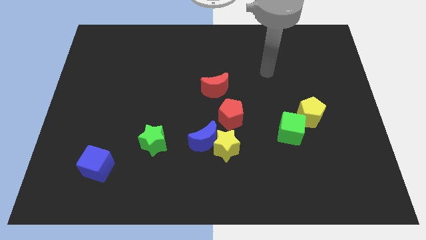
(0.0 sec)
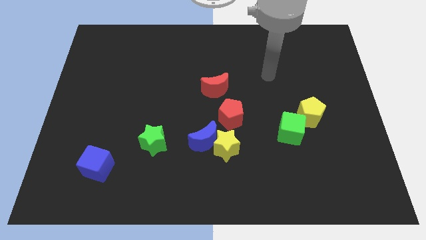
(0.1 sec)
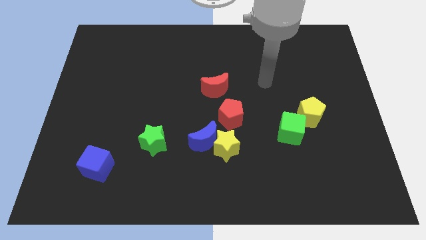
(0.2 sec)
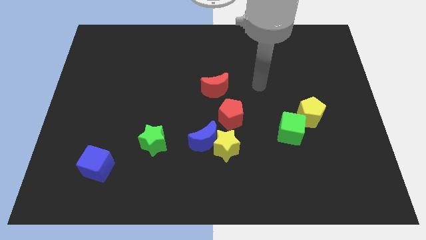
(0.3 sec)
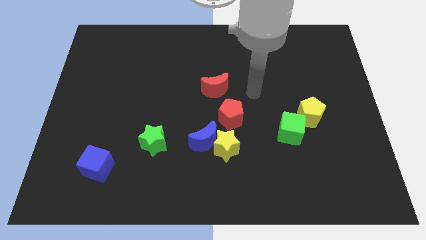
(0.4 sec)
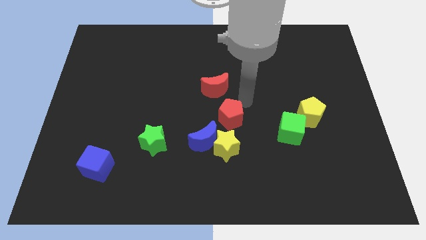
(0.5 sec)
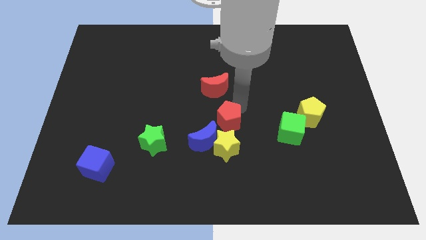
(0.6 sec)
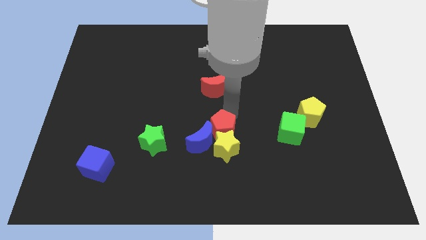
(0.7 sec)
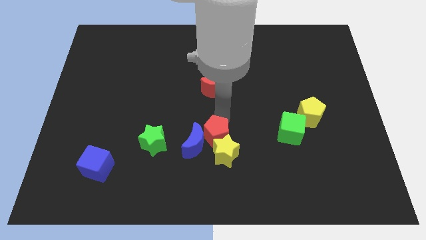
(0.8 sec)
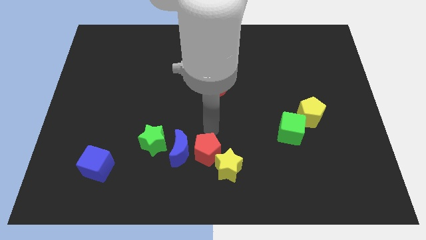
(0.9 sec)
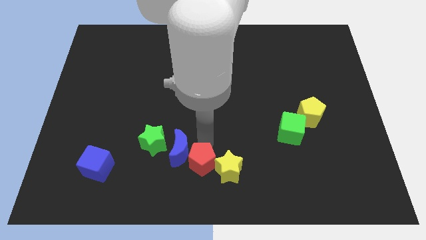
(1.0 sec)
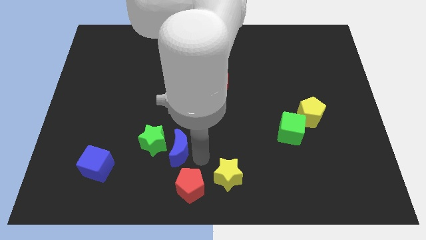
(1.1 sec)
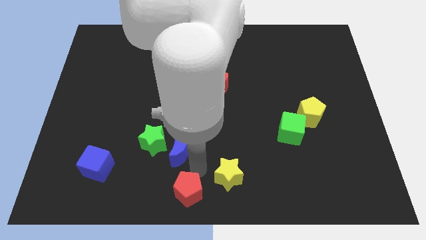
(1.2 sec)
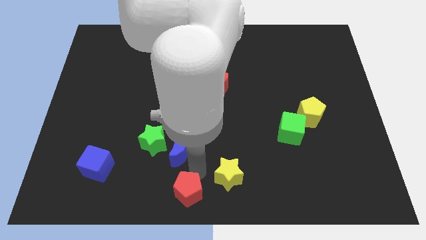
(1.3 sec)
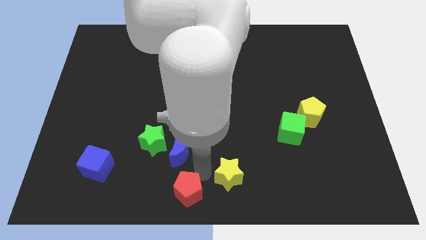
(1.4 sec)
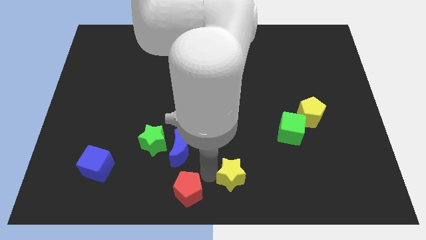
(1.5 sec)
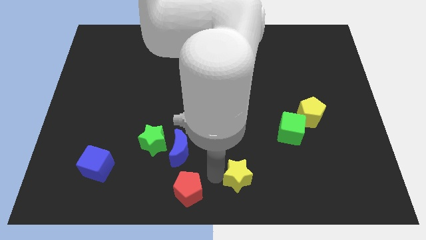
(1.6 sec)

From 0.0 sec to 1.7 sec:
pull the yellow star apart from the blue moon and red pentagon

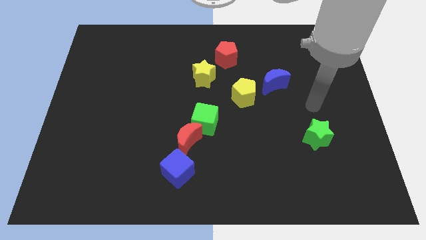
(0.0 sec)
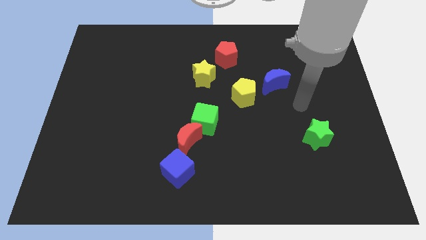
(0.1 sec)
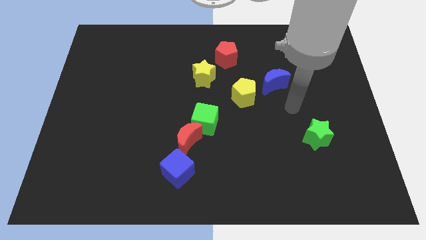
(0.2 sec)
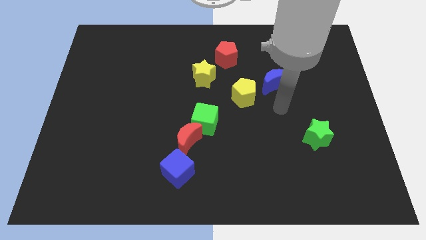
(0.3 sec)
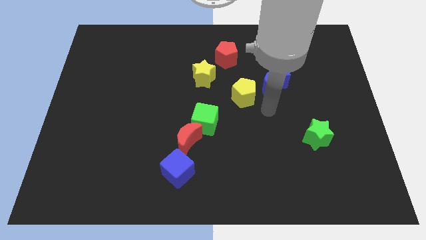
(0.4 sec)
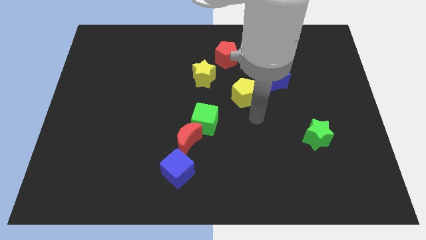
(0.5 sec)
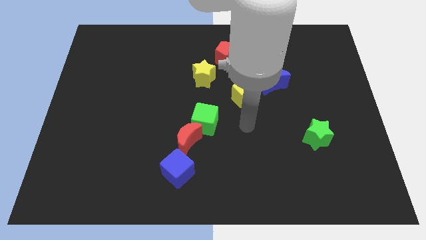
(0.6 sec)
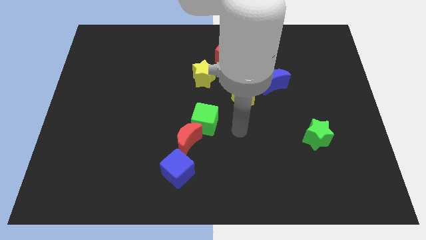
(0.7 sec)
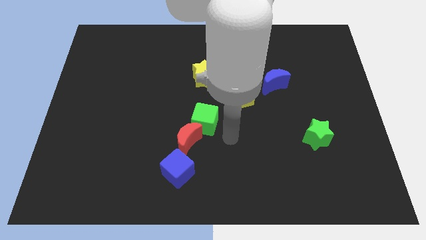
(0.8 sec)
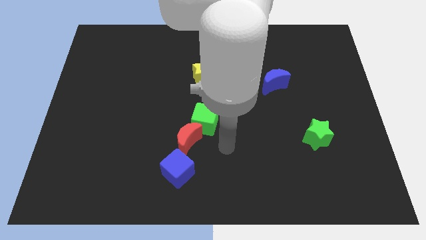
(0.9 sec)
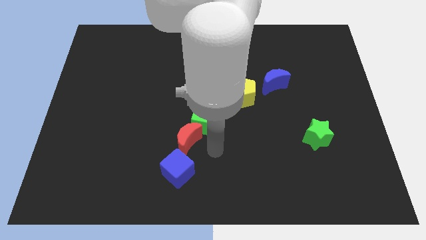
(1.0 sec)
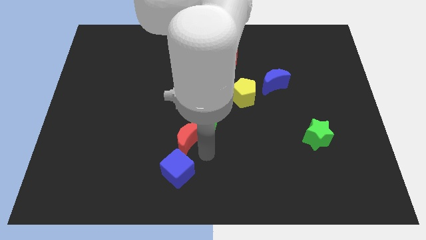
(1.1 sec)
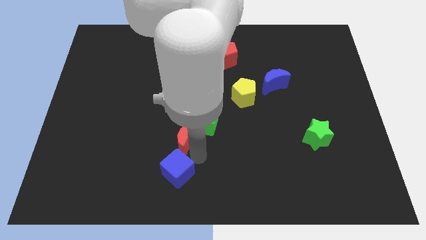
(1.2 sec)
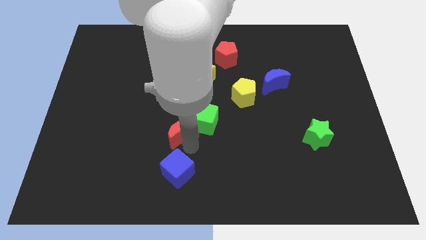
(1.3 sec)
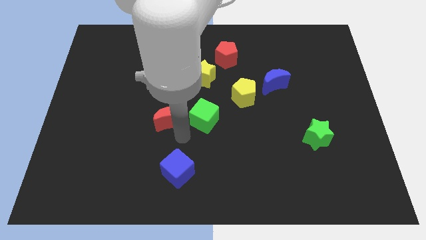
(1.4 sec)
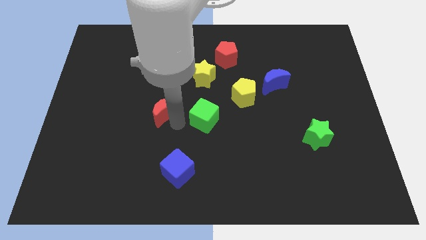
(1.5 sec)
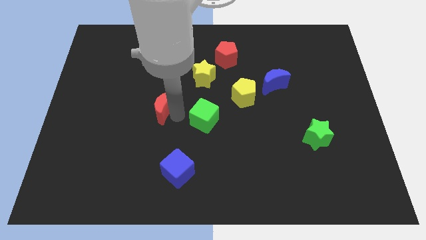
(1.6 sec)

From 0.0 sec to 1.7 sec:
pull the green cube apart from the red moon

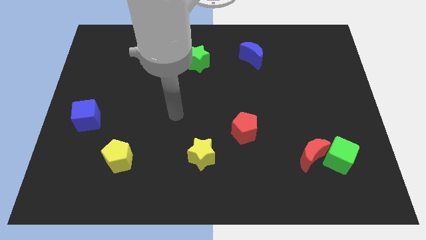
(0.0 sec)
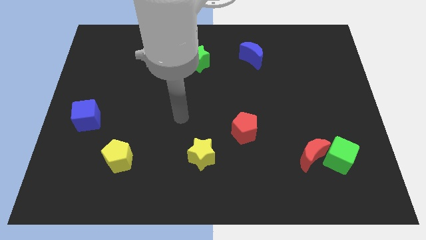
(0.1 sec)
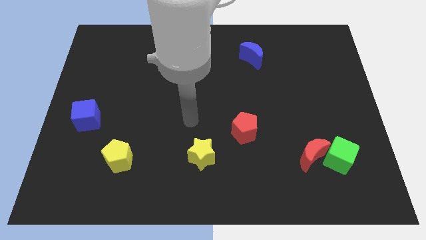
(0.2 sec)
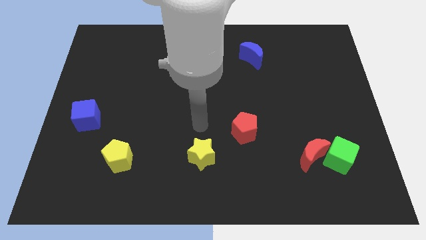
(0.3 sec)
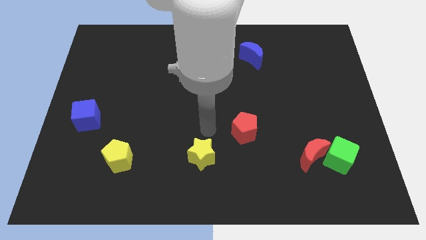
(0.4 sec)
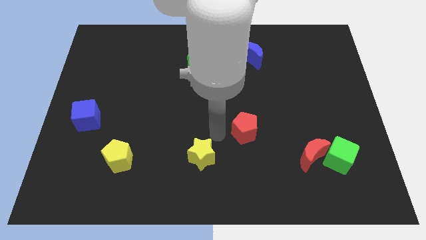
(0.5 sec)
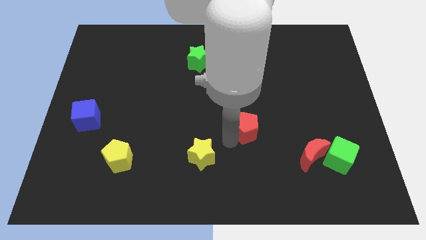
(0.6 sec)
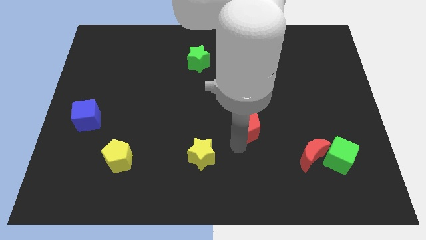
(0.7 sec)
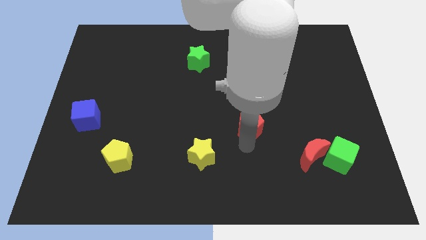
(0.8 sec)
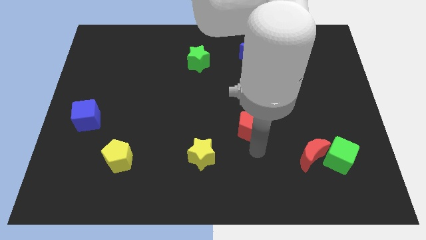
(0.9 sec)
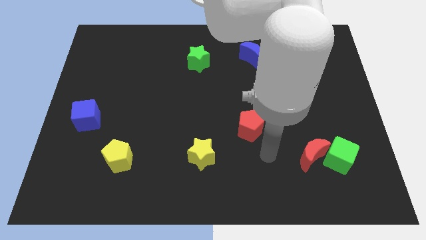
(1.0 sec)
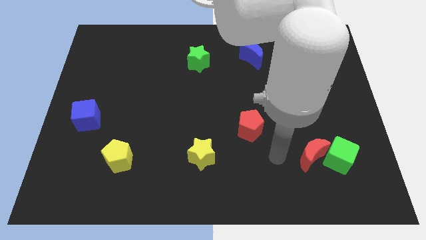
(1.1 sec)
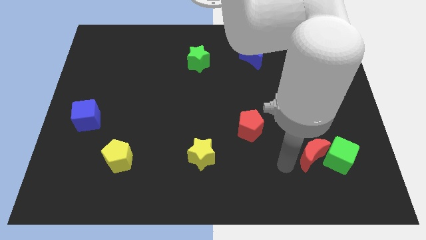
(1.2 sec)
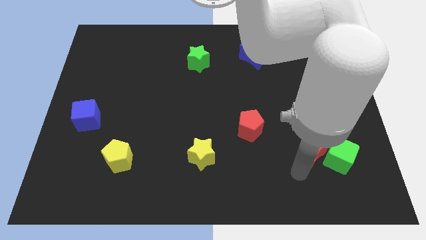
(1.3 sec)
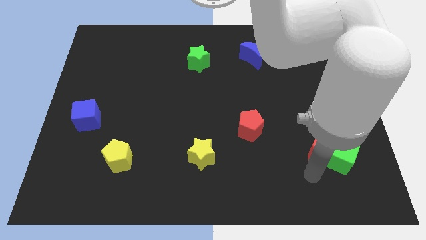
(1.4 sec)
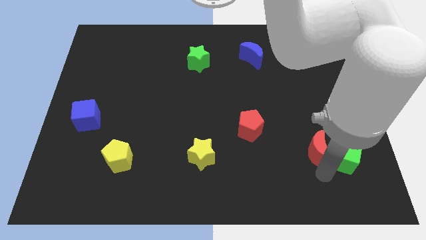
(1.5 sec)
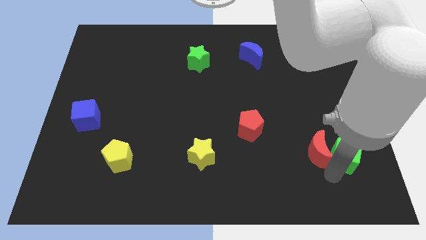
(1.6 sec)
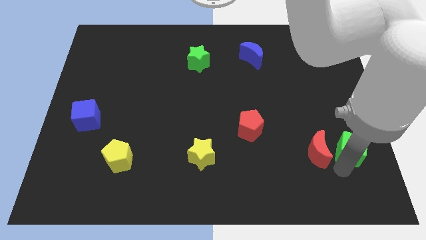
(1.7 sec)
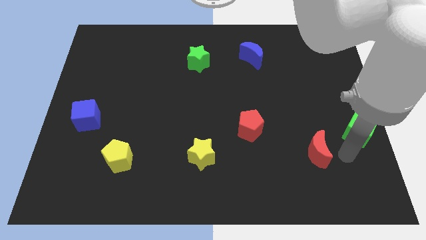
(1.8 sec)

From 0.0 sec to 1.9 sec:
pull the red moon apart from the green cube

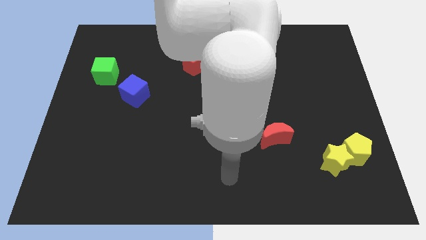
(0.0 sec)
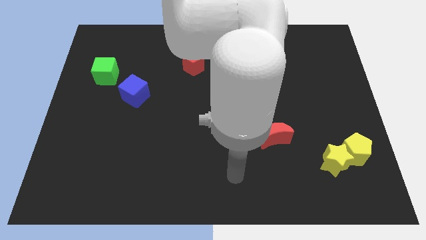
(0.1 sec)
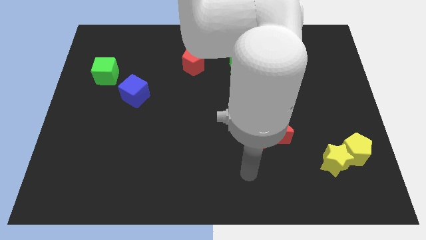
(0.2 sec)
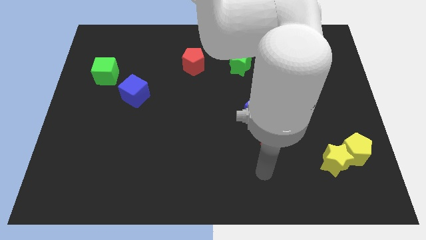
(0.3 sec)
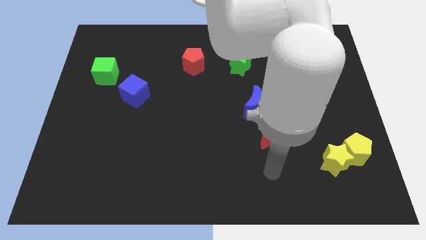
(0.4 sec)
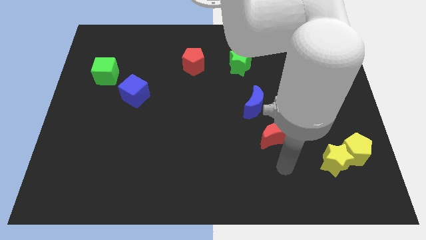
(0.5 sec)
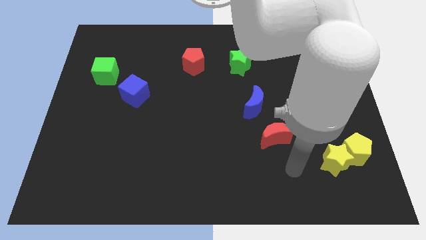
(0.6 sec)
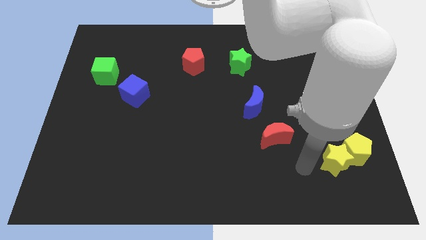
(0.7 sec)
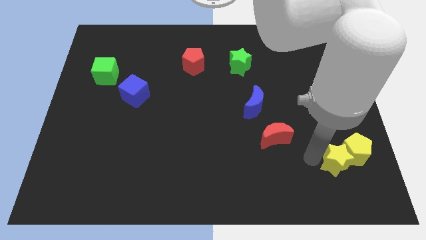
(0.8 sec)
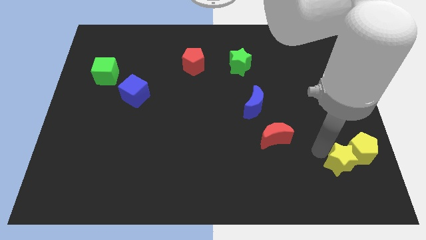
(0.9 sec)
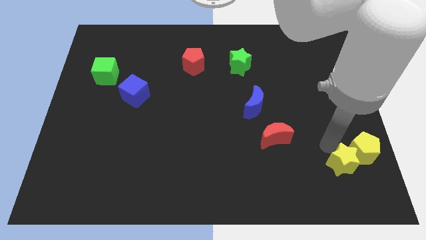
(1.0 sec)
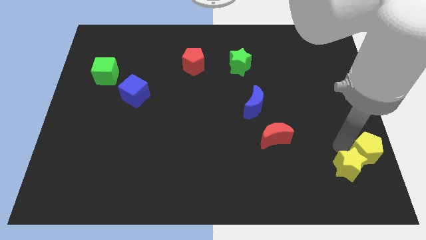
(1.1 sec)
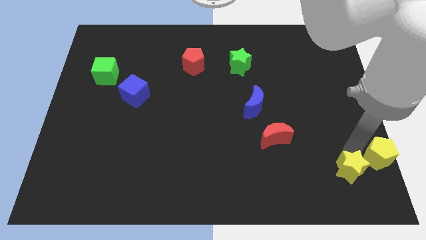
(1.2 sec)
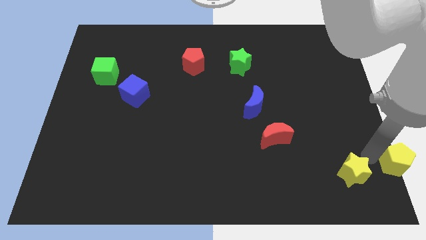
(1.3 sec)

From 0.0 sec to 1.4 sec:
move the yellow star away from the yellow pentagon

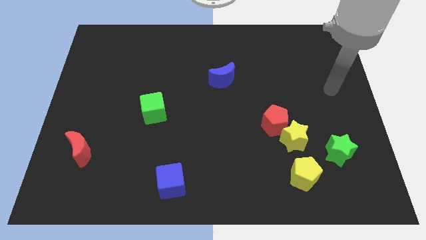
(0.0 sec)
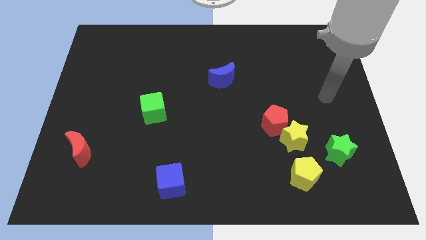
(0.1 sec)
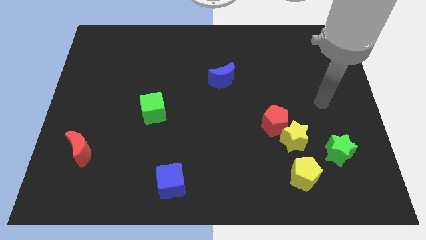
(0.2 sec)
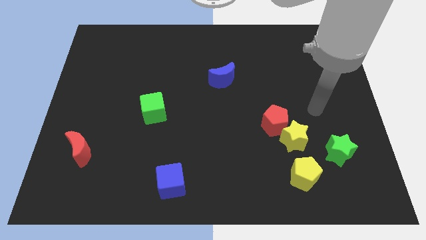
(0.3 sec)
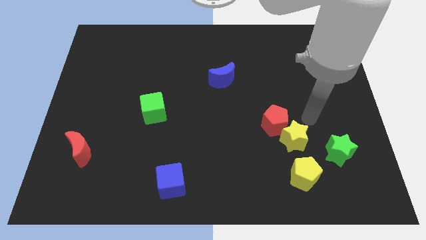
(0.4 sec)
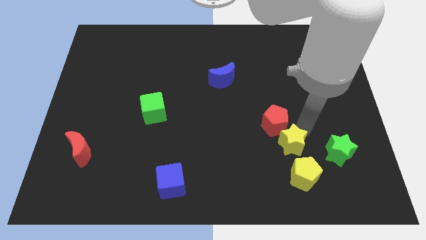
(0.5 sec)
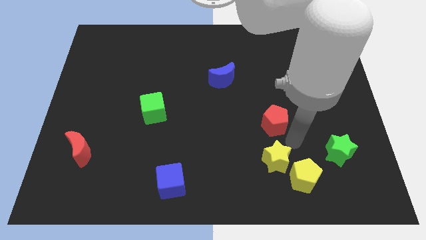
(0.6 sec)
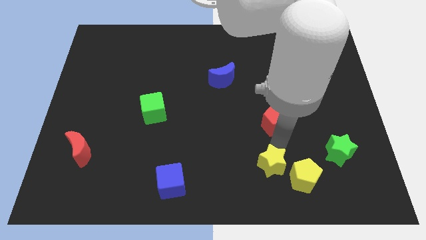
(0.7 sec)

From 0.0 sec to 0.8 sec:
pull the red pentagon apart from the yellow star

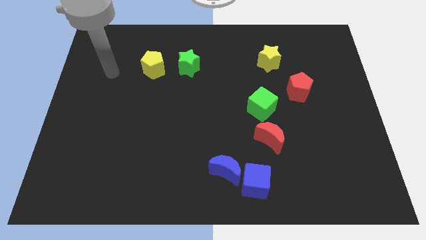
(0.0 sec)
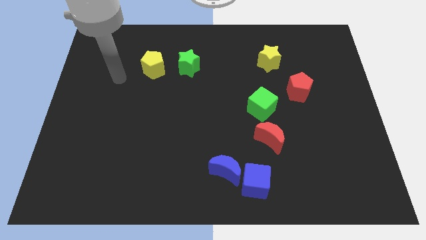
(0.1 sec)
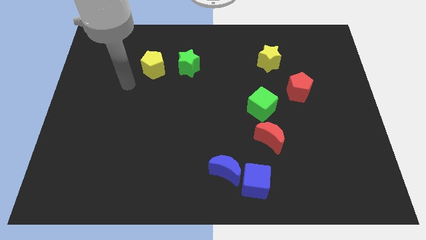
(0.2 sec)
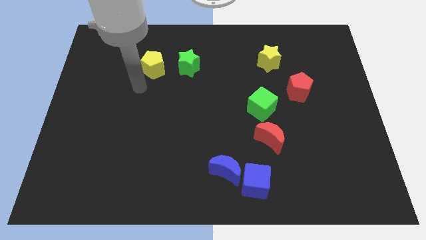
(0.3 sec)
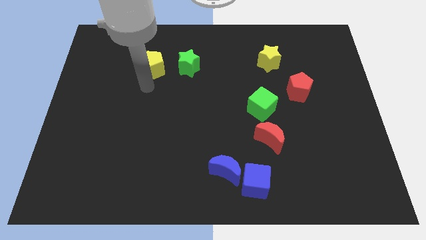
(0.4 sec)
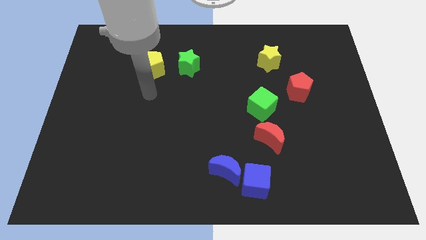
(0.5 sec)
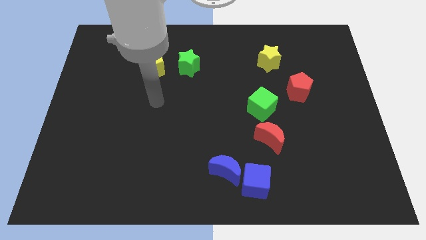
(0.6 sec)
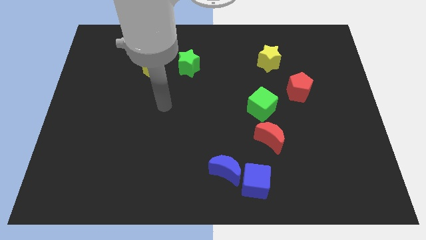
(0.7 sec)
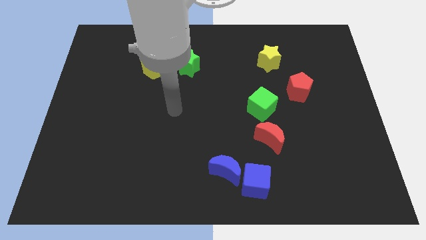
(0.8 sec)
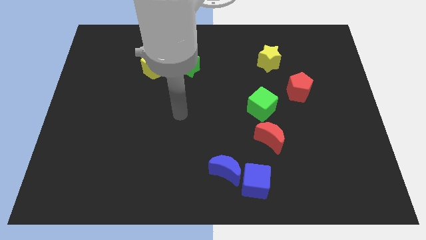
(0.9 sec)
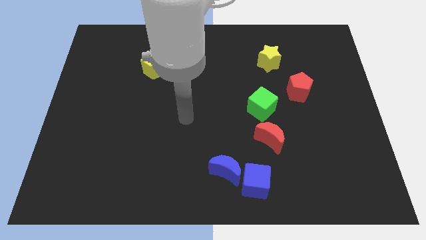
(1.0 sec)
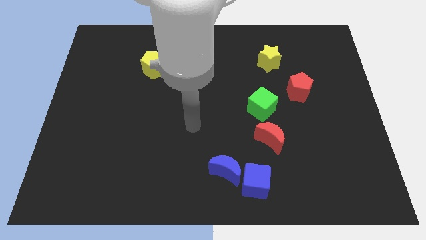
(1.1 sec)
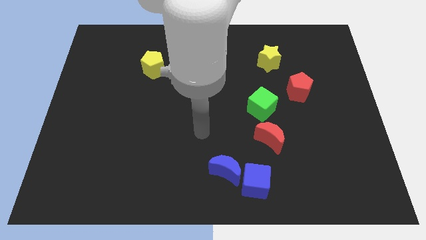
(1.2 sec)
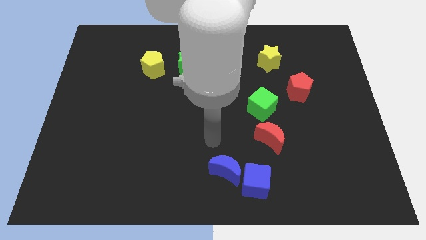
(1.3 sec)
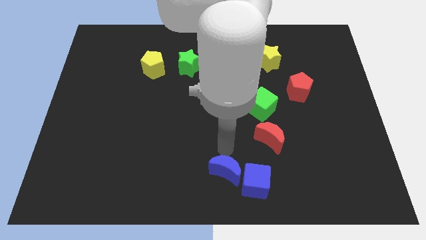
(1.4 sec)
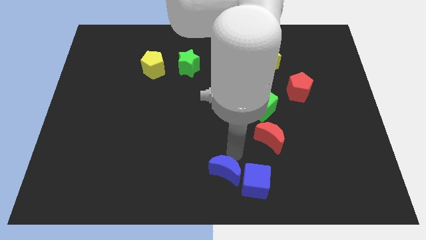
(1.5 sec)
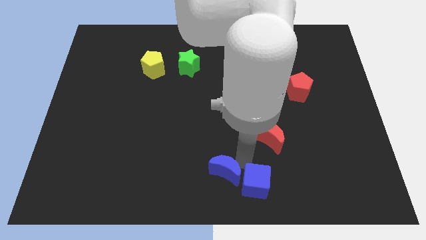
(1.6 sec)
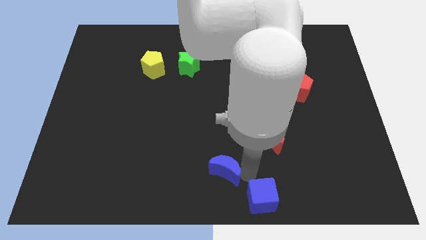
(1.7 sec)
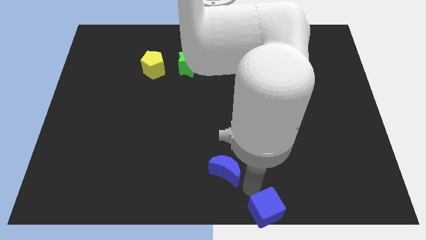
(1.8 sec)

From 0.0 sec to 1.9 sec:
move the blue moon away from the blue cube
